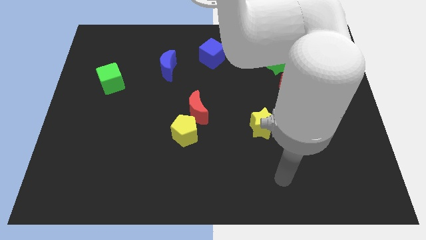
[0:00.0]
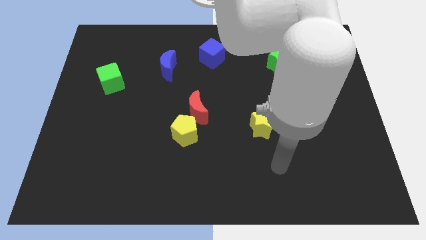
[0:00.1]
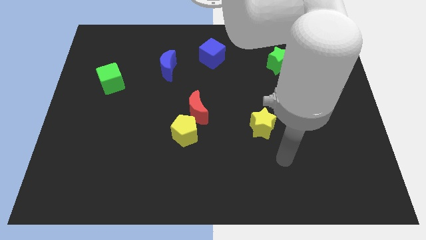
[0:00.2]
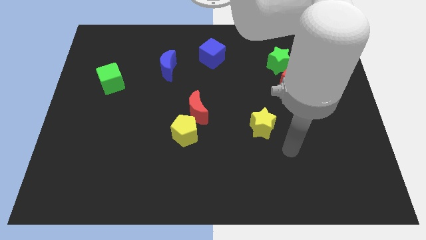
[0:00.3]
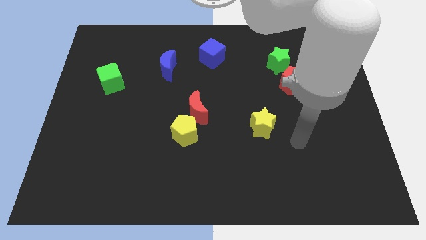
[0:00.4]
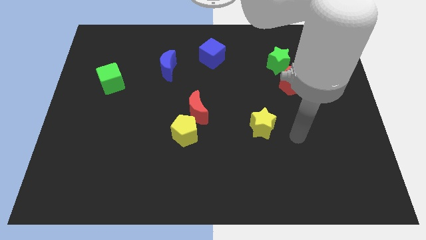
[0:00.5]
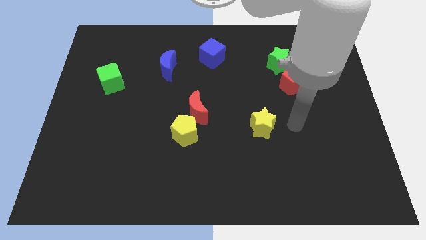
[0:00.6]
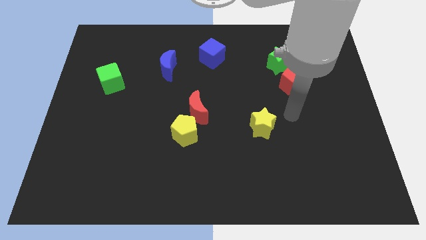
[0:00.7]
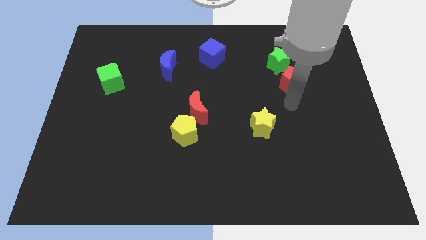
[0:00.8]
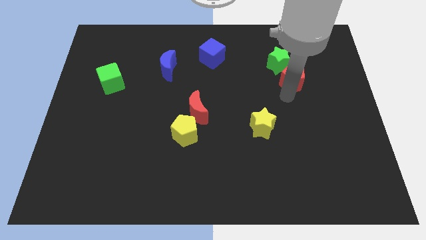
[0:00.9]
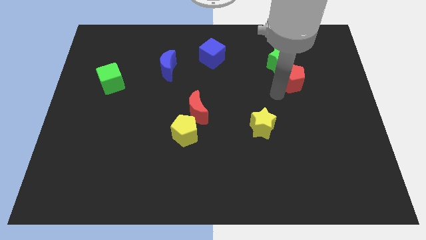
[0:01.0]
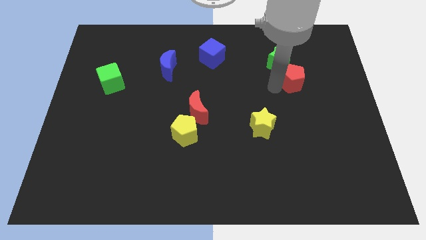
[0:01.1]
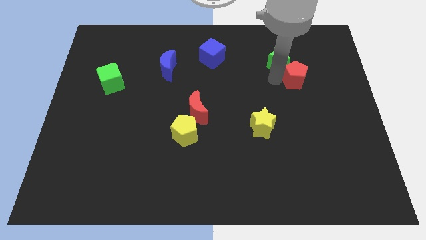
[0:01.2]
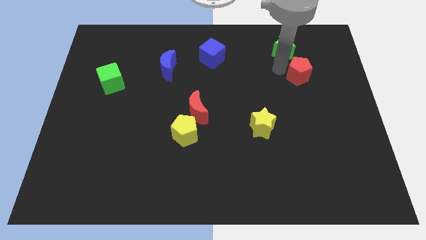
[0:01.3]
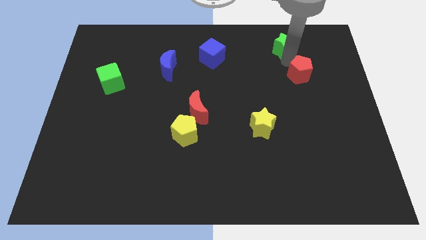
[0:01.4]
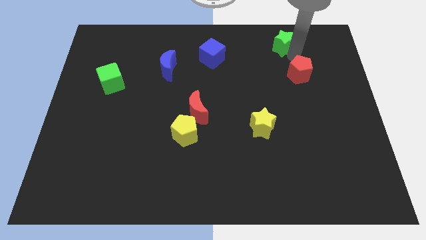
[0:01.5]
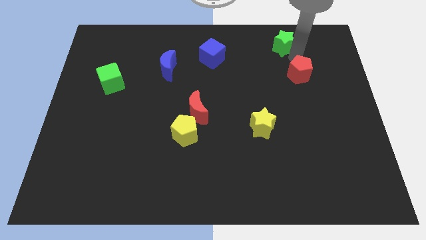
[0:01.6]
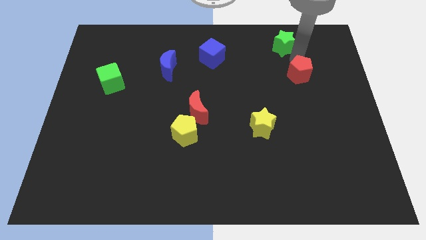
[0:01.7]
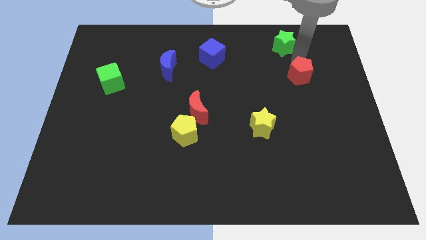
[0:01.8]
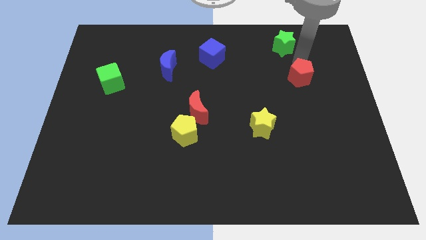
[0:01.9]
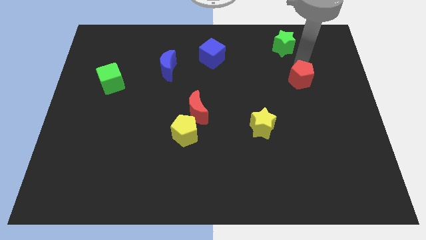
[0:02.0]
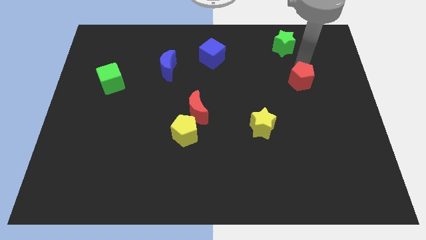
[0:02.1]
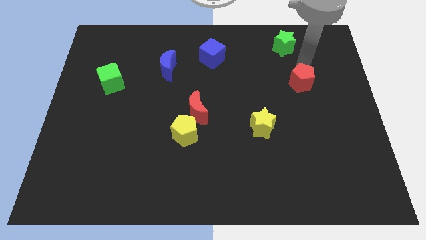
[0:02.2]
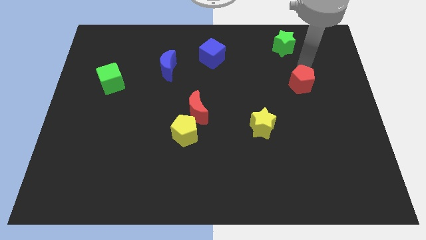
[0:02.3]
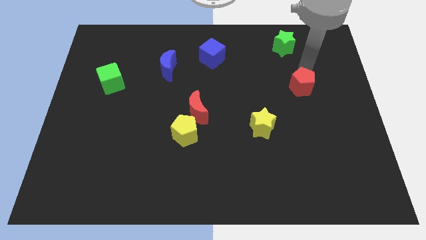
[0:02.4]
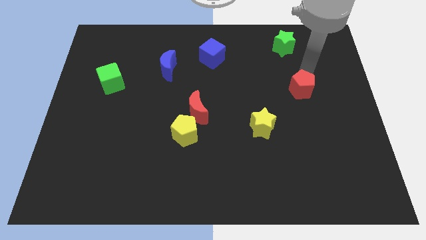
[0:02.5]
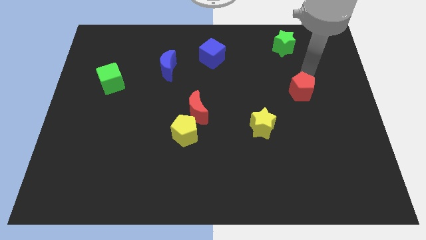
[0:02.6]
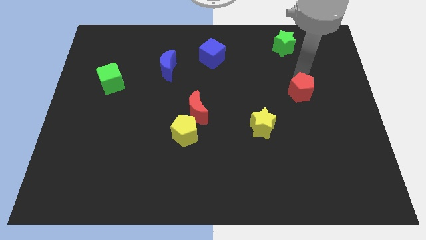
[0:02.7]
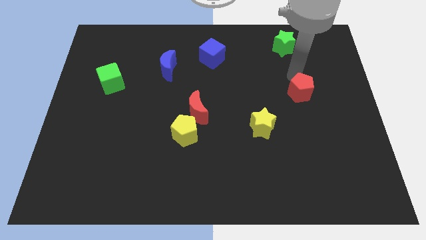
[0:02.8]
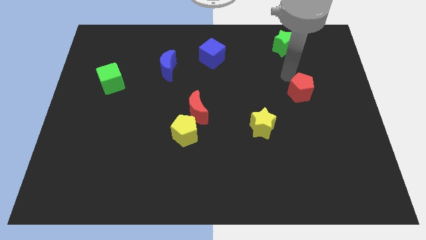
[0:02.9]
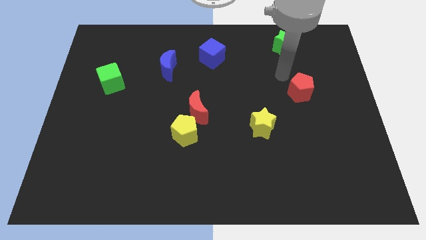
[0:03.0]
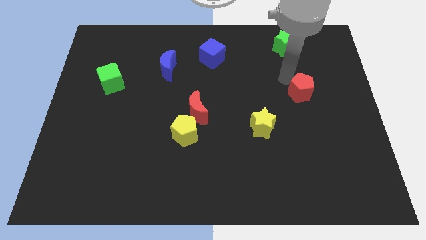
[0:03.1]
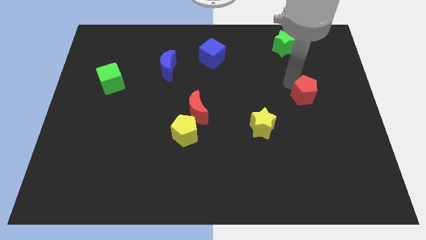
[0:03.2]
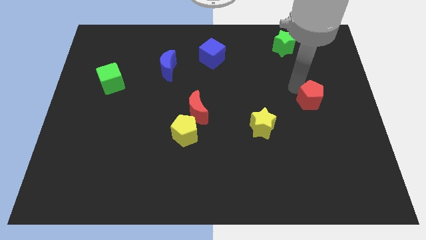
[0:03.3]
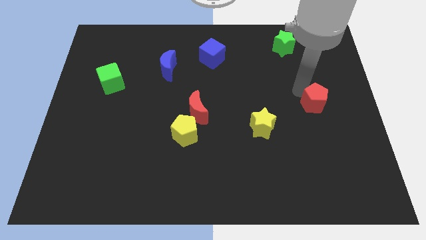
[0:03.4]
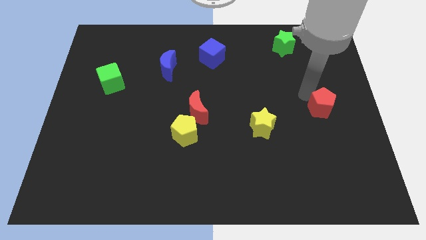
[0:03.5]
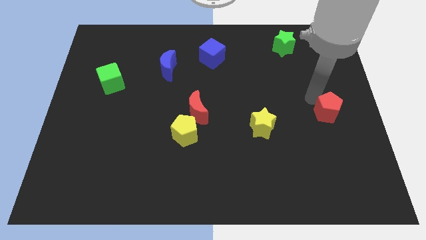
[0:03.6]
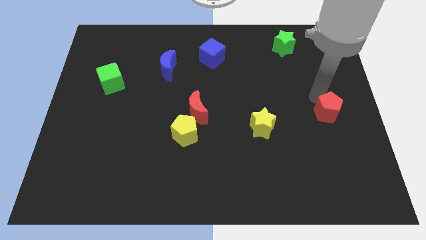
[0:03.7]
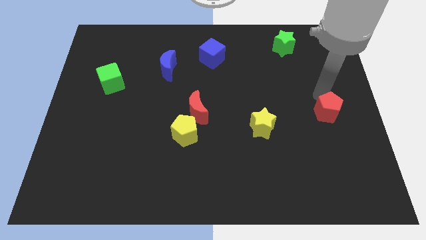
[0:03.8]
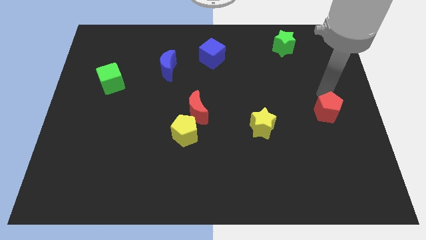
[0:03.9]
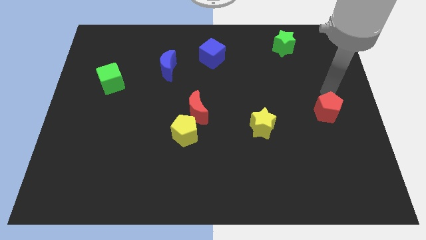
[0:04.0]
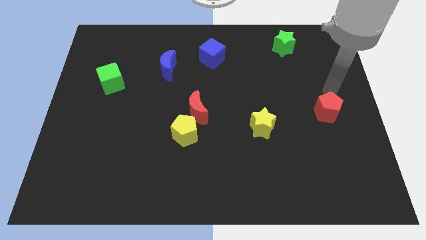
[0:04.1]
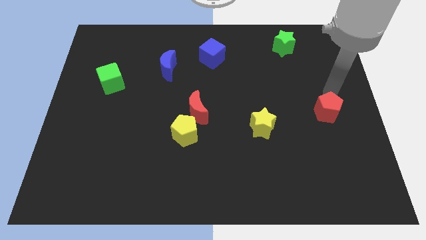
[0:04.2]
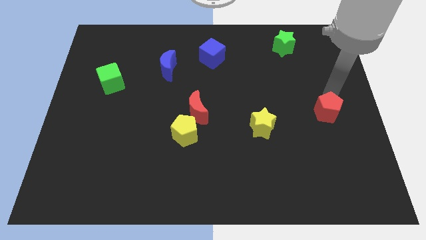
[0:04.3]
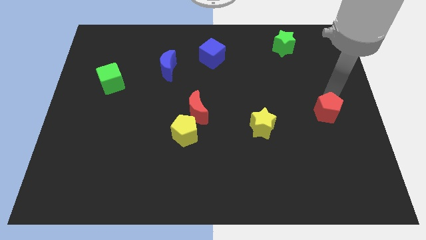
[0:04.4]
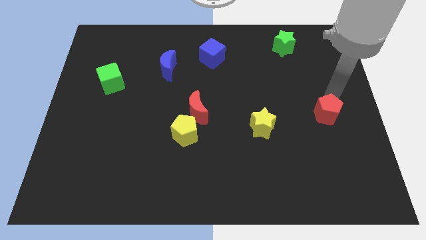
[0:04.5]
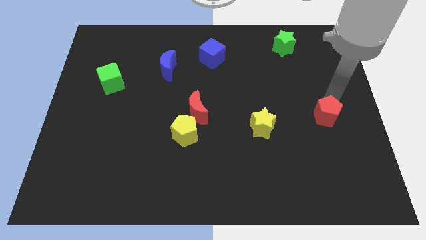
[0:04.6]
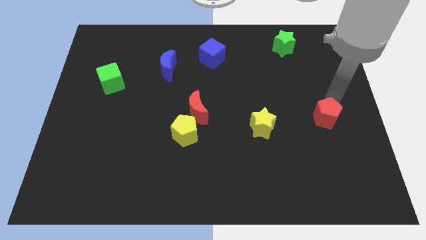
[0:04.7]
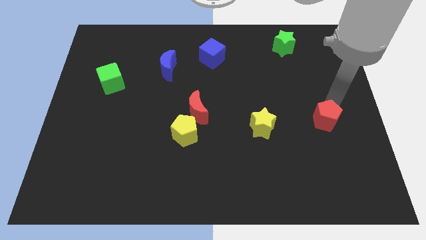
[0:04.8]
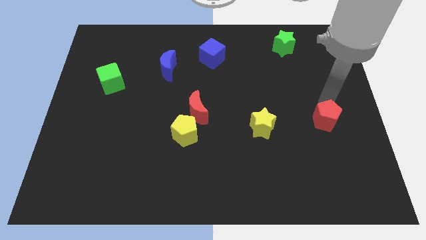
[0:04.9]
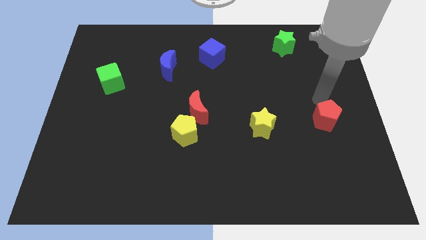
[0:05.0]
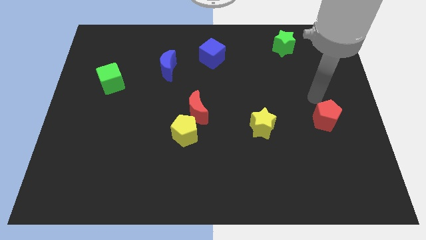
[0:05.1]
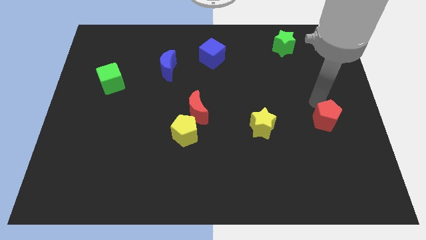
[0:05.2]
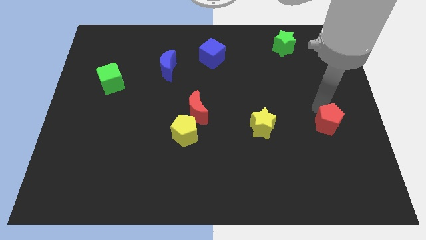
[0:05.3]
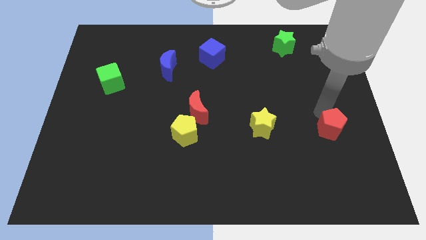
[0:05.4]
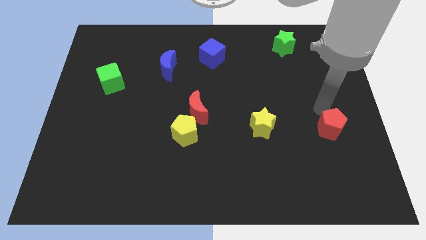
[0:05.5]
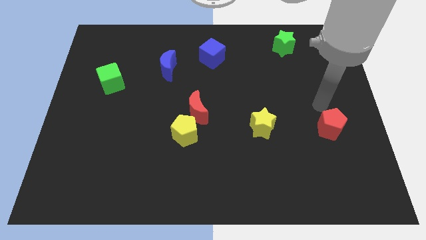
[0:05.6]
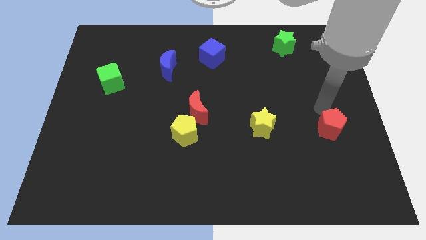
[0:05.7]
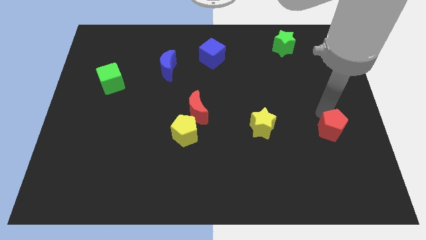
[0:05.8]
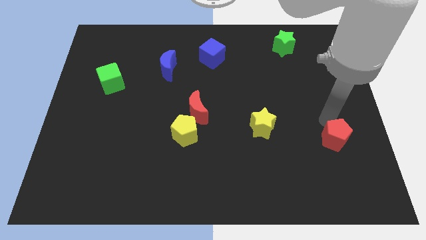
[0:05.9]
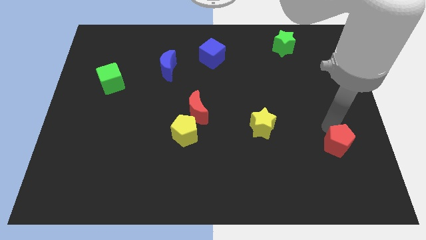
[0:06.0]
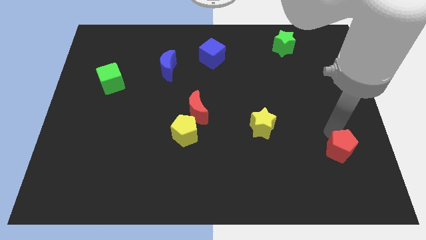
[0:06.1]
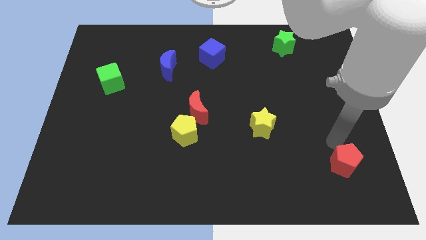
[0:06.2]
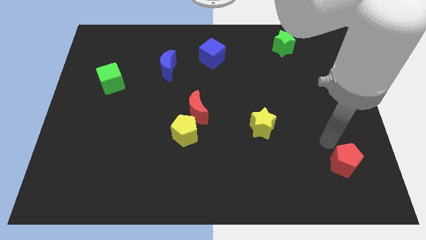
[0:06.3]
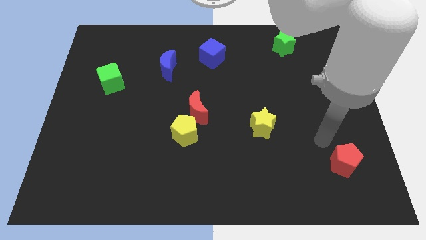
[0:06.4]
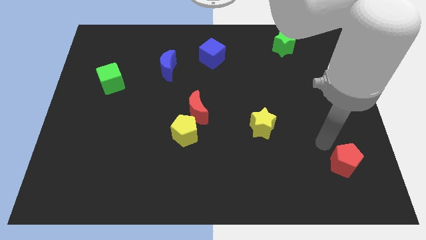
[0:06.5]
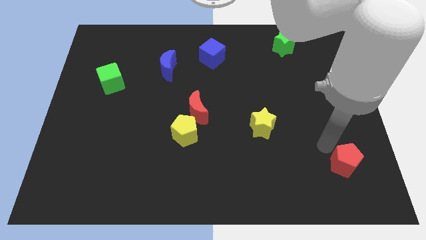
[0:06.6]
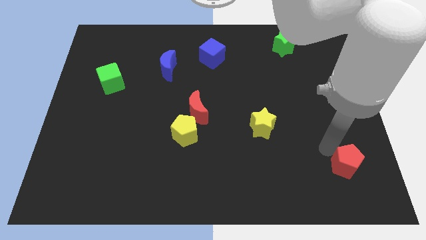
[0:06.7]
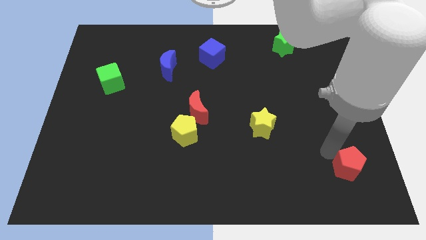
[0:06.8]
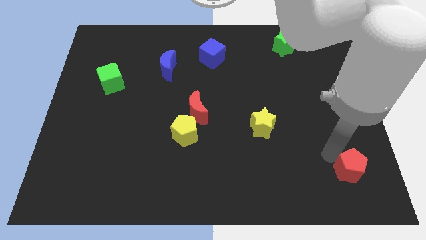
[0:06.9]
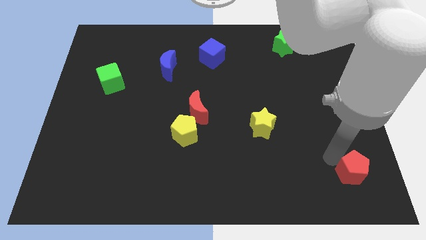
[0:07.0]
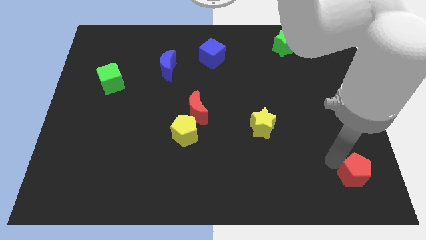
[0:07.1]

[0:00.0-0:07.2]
push the red pentagon to the bottom right of the board
